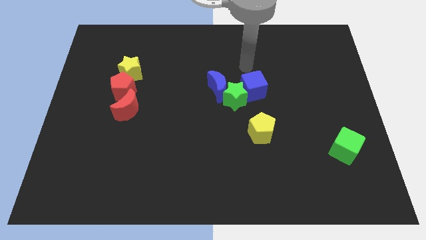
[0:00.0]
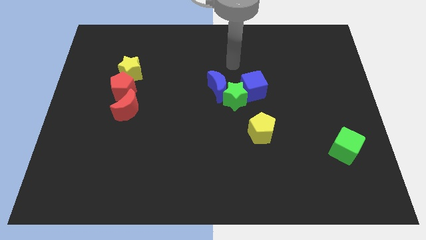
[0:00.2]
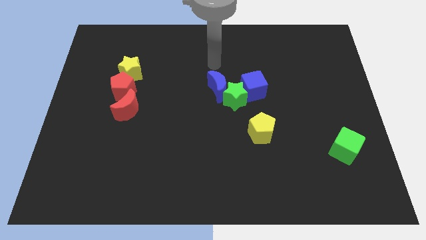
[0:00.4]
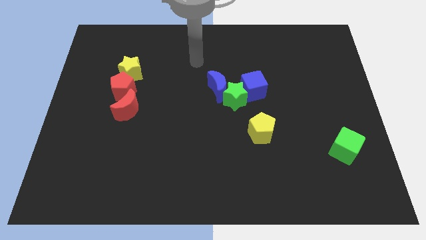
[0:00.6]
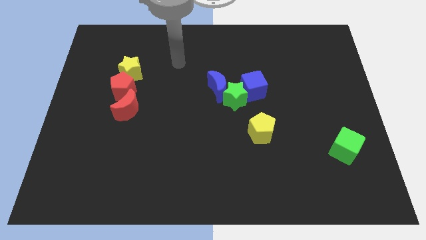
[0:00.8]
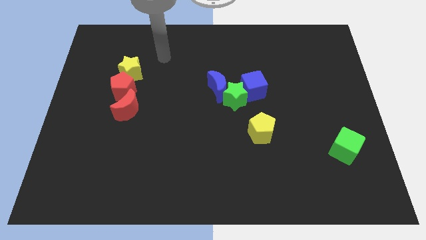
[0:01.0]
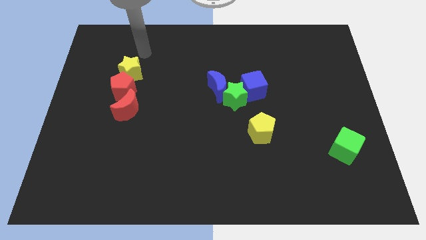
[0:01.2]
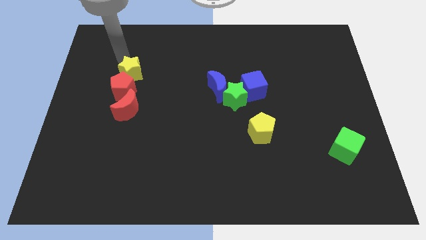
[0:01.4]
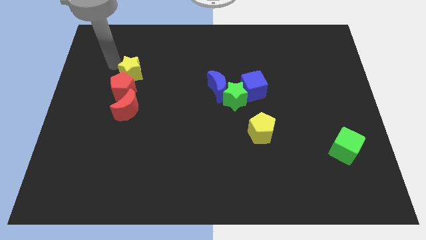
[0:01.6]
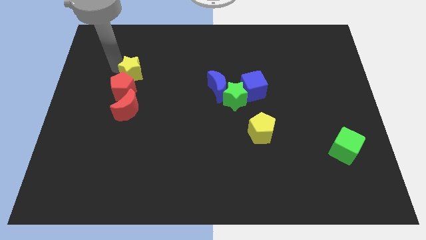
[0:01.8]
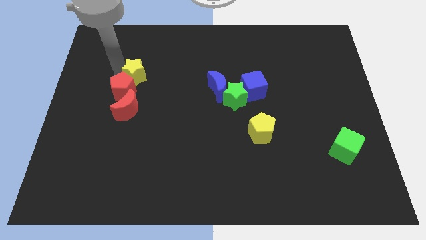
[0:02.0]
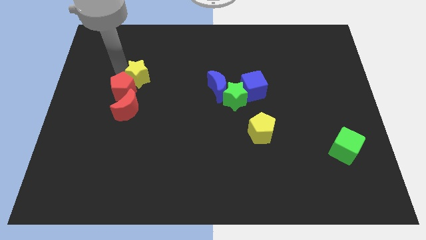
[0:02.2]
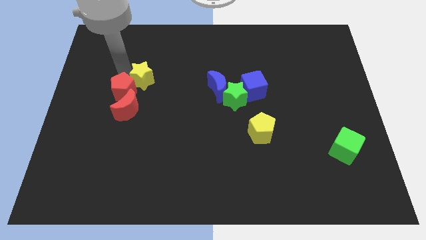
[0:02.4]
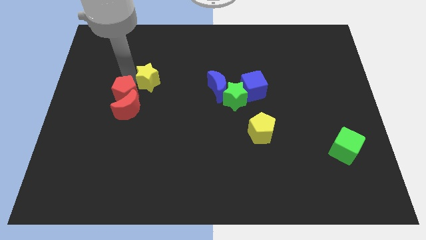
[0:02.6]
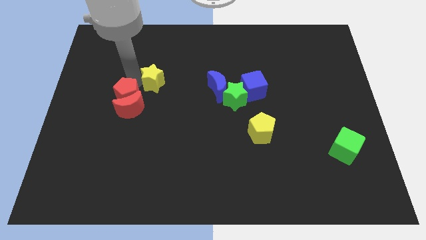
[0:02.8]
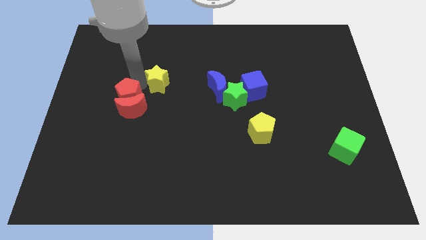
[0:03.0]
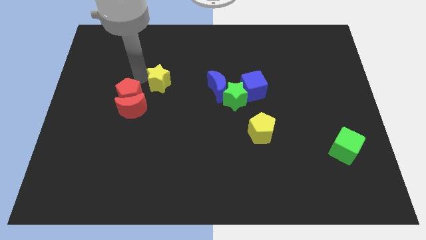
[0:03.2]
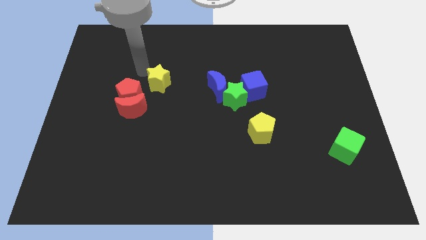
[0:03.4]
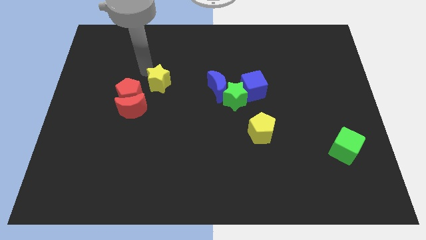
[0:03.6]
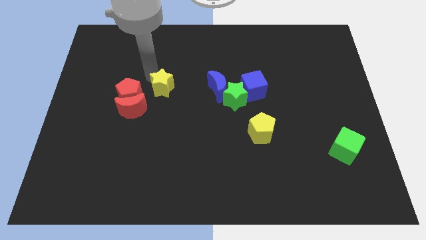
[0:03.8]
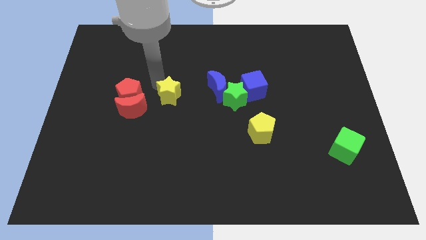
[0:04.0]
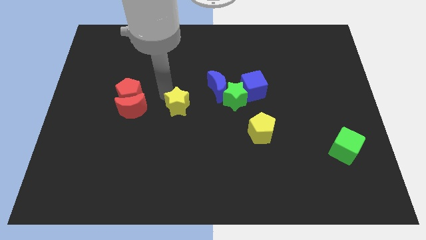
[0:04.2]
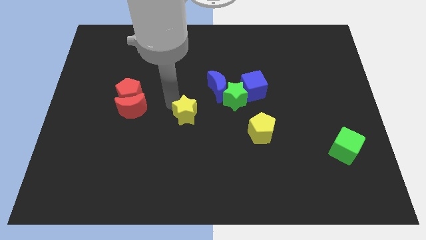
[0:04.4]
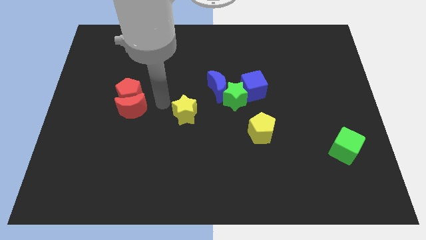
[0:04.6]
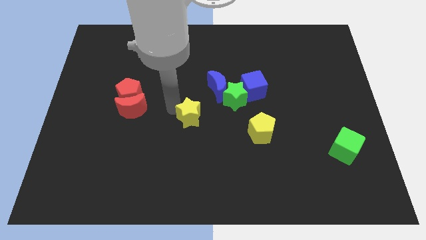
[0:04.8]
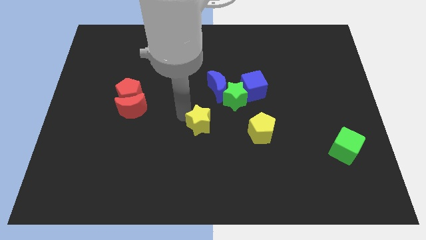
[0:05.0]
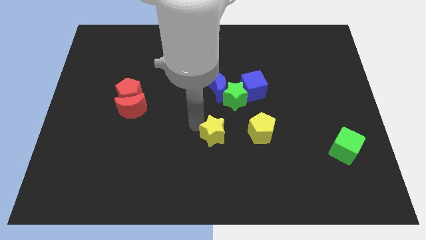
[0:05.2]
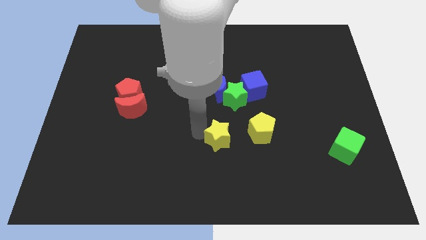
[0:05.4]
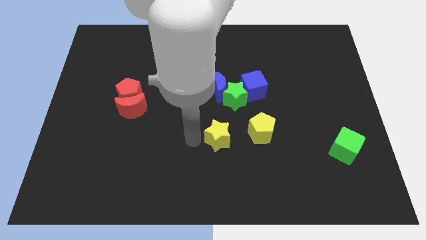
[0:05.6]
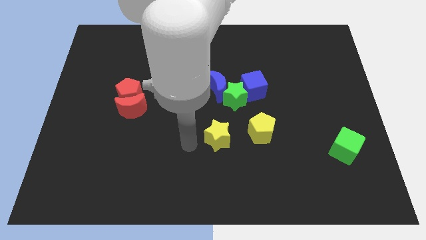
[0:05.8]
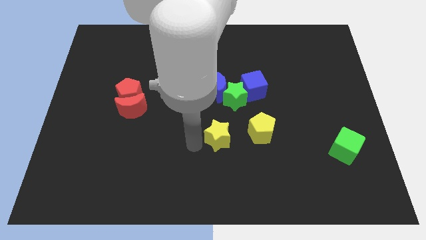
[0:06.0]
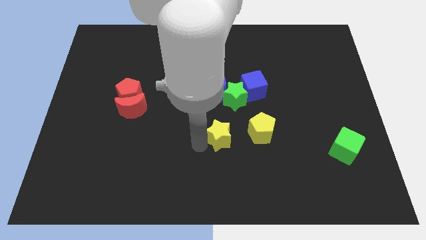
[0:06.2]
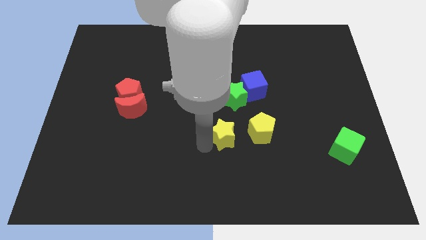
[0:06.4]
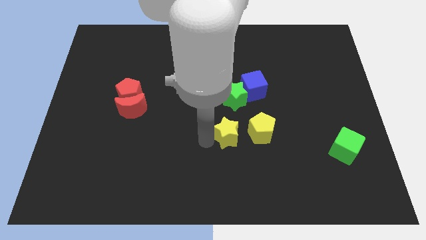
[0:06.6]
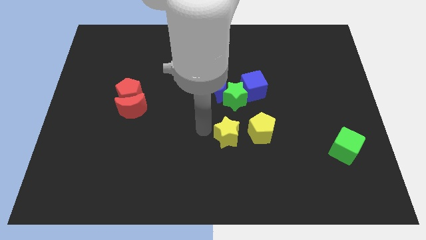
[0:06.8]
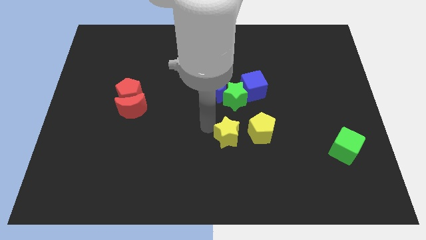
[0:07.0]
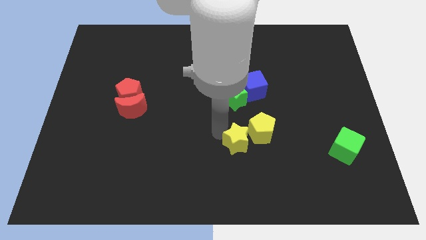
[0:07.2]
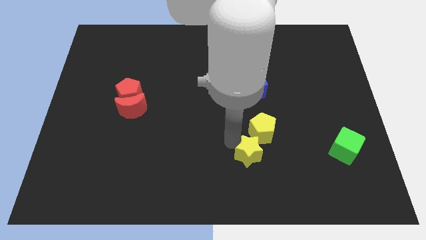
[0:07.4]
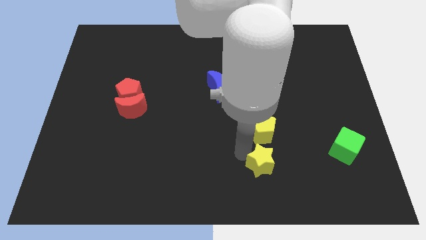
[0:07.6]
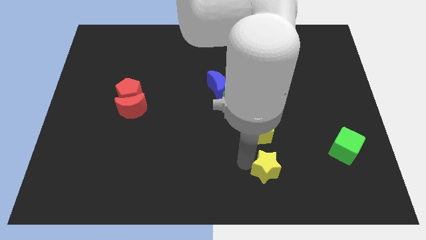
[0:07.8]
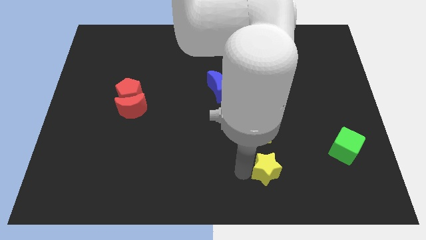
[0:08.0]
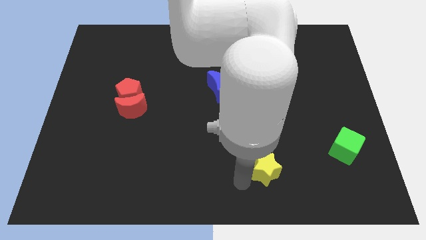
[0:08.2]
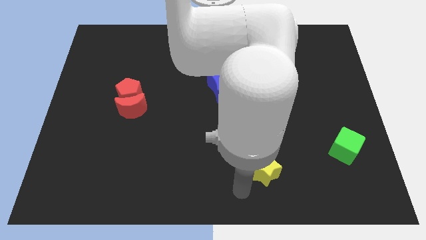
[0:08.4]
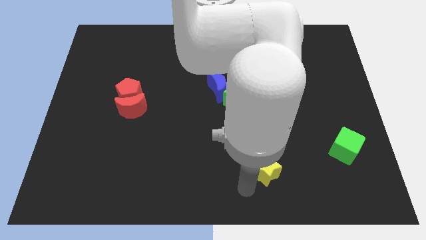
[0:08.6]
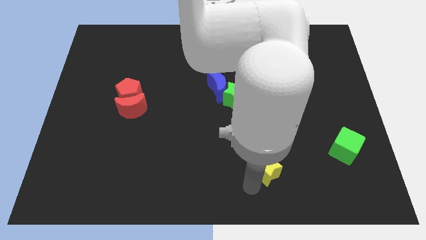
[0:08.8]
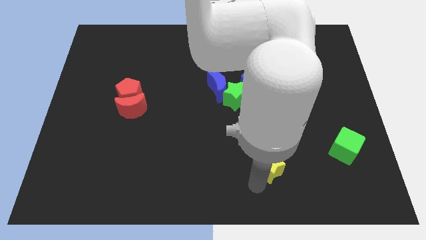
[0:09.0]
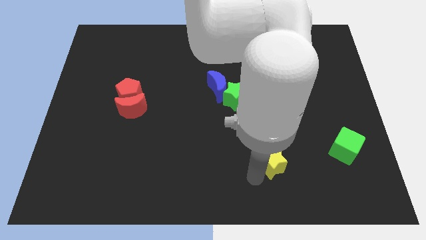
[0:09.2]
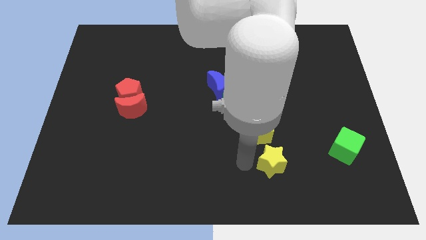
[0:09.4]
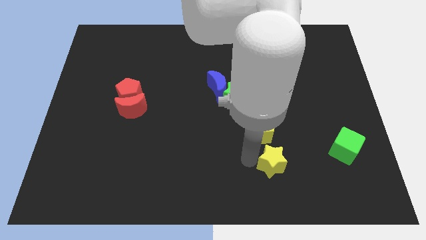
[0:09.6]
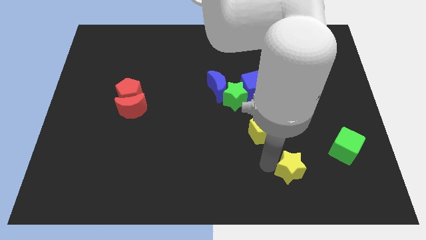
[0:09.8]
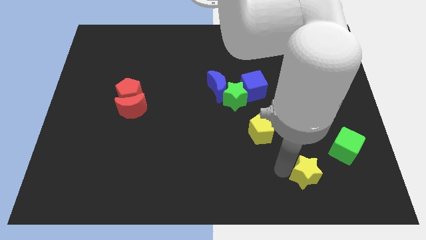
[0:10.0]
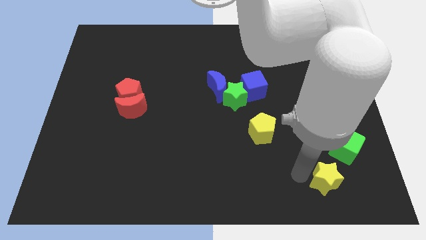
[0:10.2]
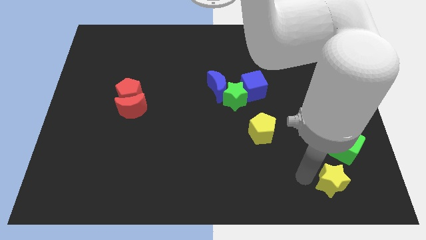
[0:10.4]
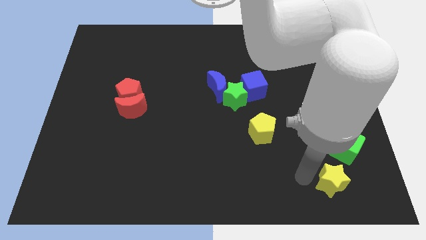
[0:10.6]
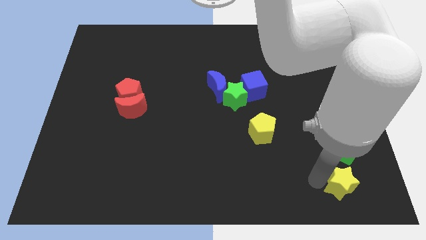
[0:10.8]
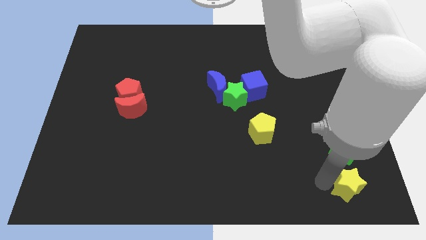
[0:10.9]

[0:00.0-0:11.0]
push the yellow star to the lower right corner

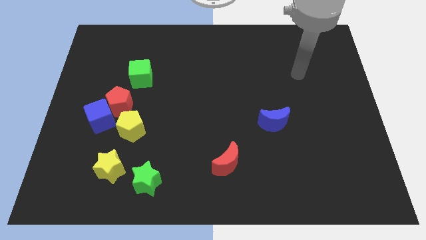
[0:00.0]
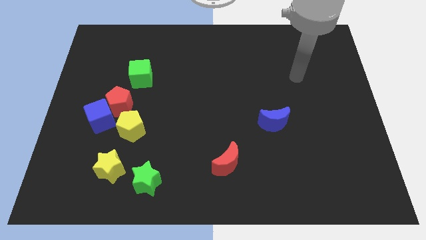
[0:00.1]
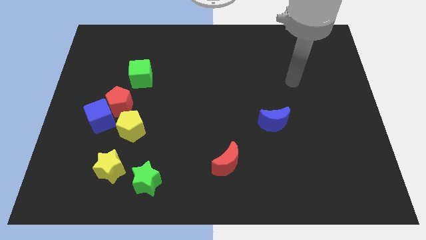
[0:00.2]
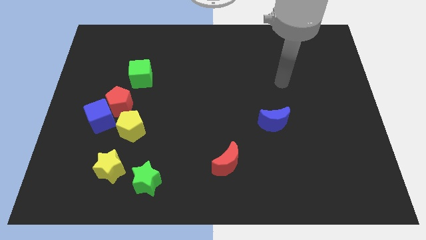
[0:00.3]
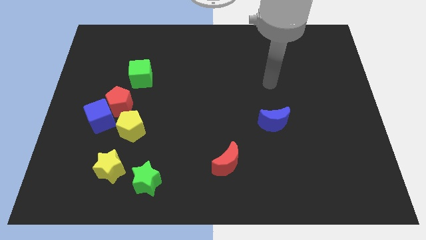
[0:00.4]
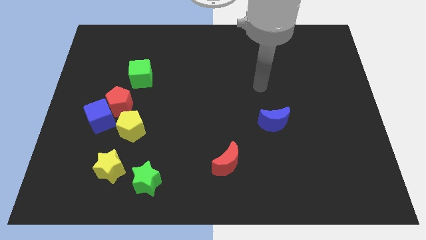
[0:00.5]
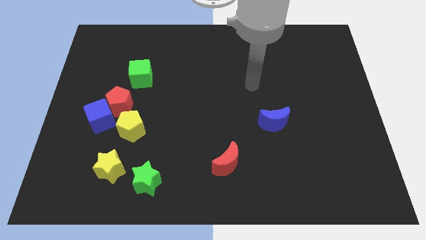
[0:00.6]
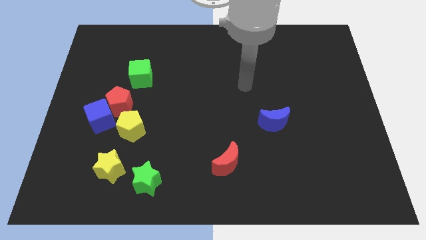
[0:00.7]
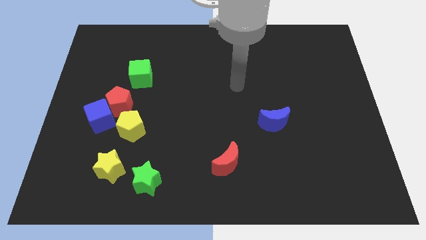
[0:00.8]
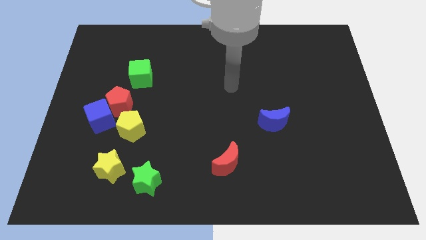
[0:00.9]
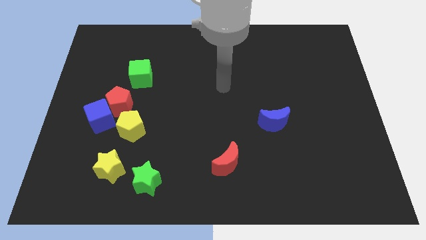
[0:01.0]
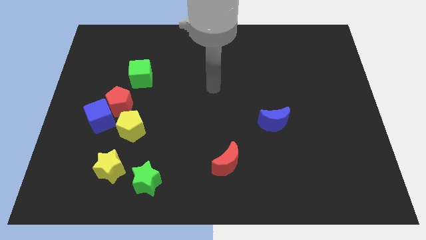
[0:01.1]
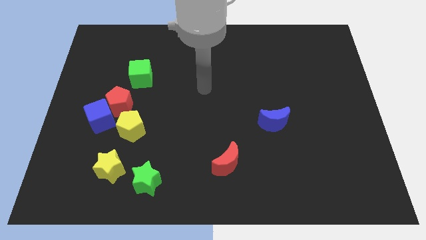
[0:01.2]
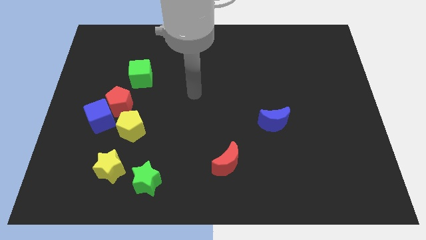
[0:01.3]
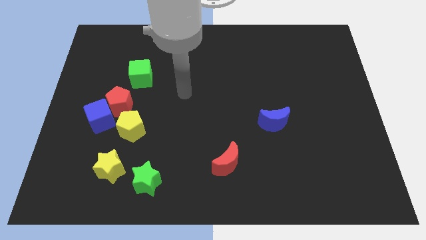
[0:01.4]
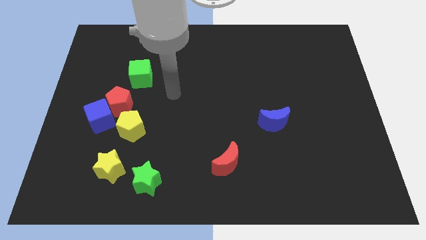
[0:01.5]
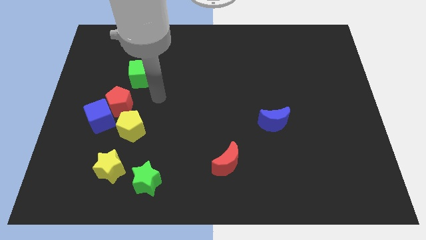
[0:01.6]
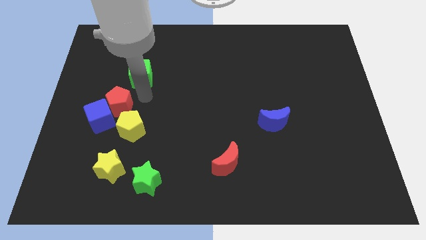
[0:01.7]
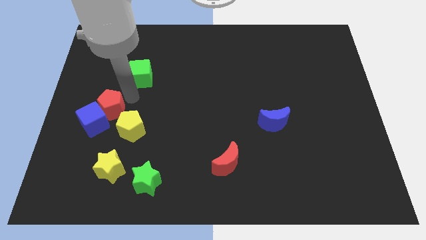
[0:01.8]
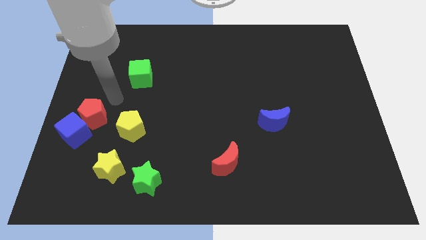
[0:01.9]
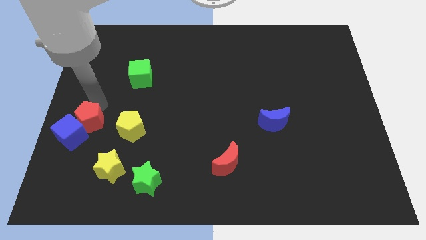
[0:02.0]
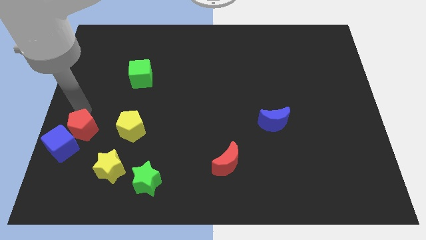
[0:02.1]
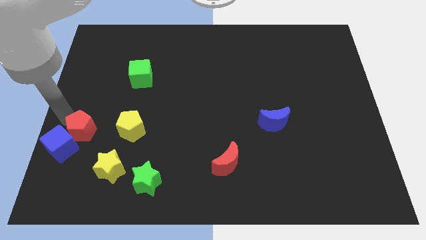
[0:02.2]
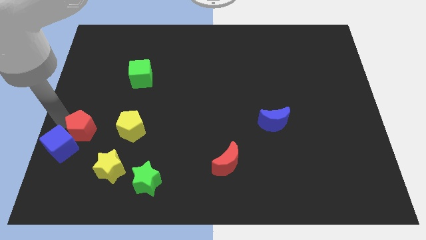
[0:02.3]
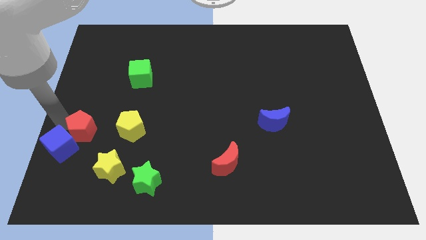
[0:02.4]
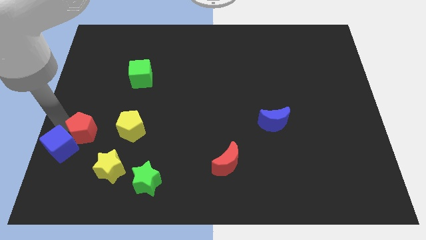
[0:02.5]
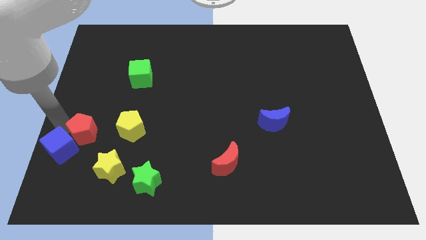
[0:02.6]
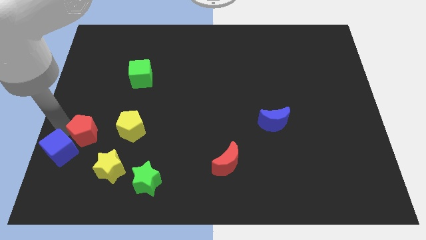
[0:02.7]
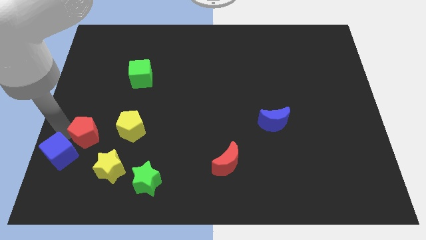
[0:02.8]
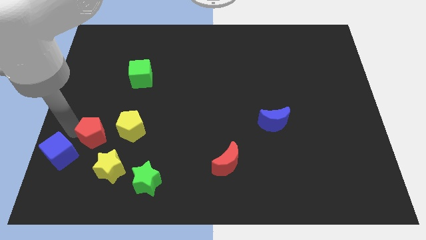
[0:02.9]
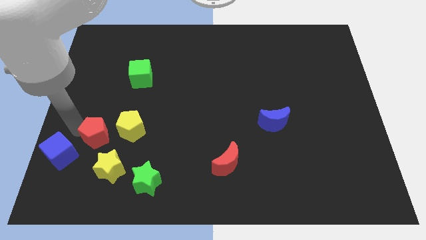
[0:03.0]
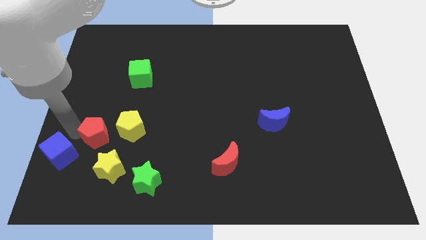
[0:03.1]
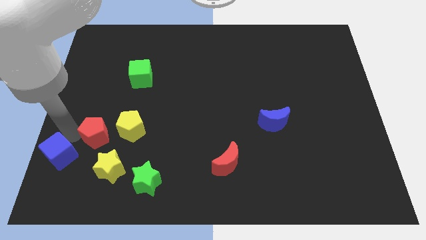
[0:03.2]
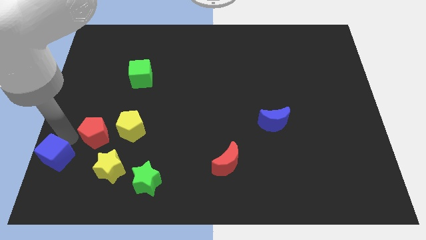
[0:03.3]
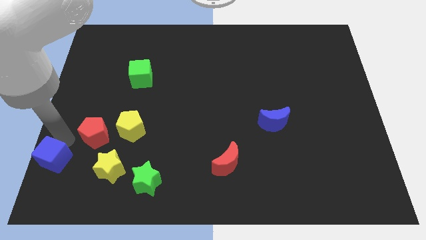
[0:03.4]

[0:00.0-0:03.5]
move the blue cube to the bottom left
